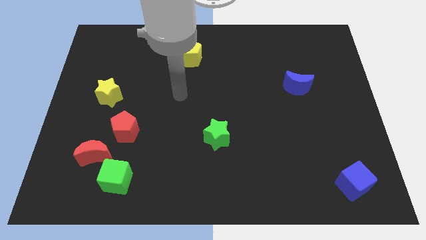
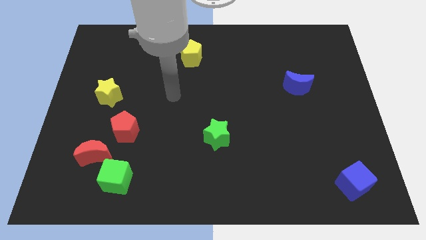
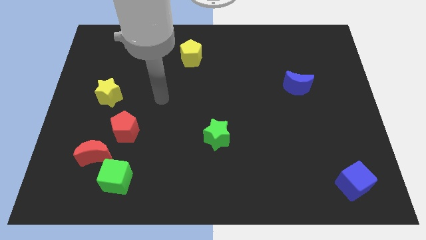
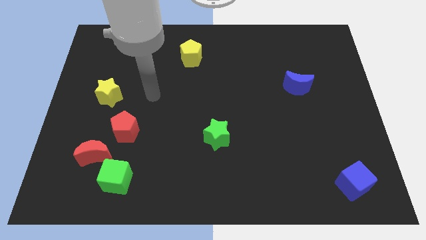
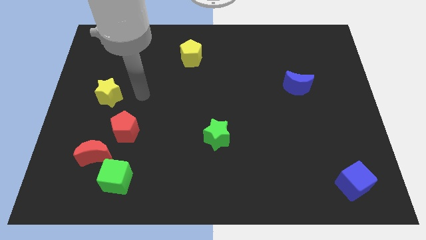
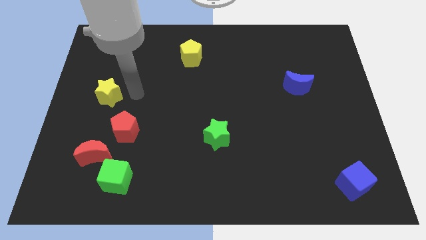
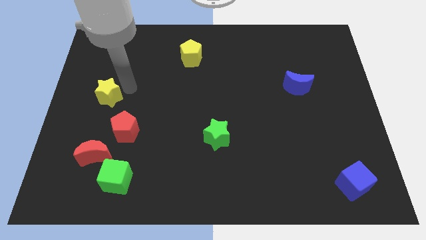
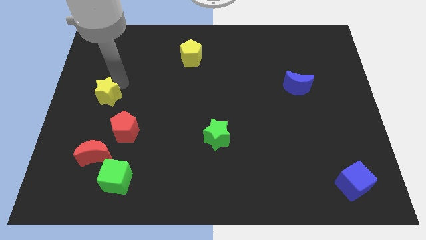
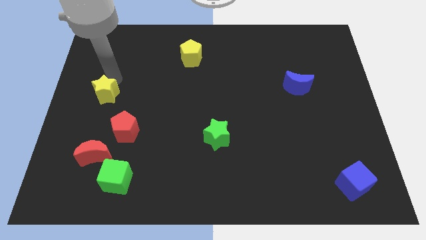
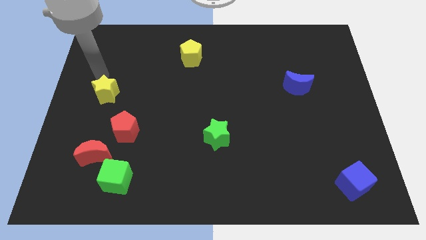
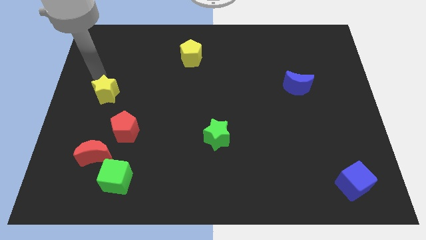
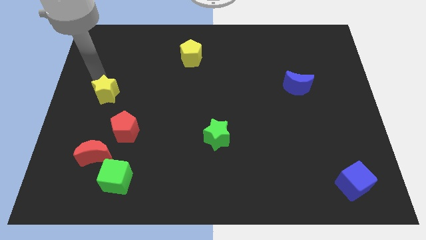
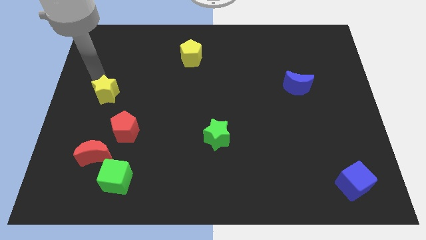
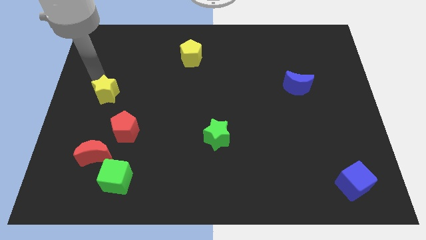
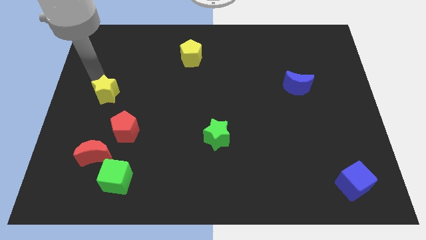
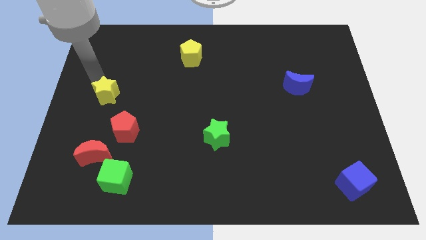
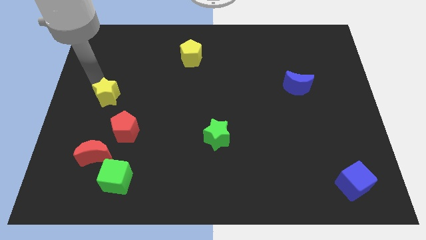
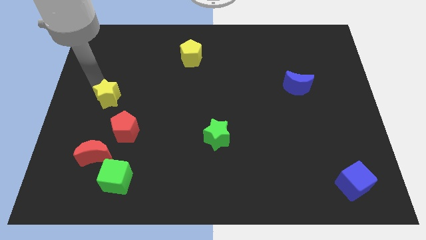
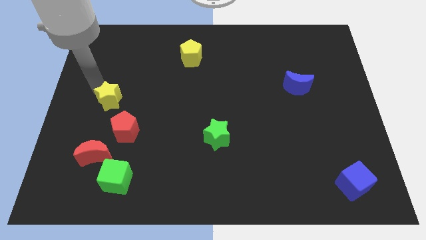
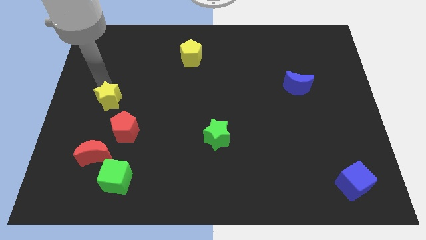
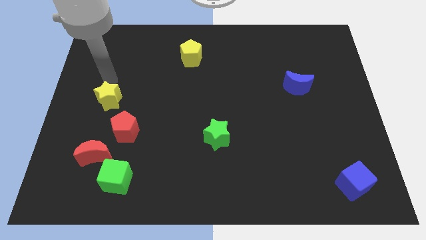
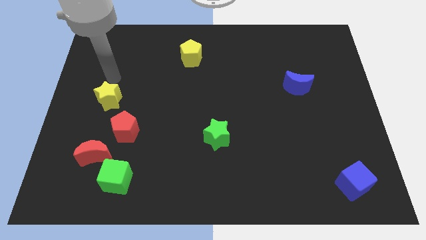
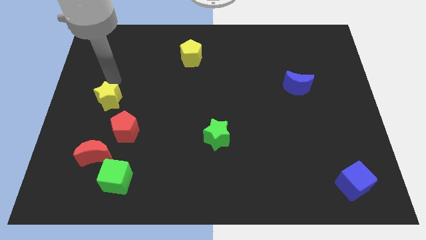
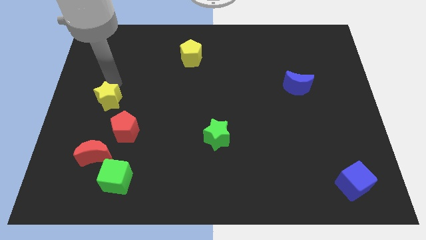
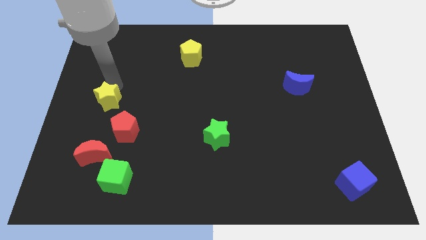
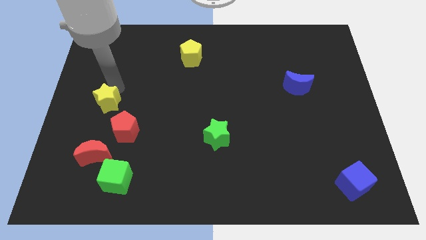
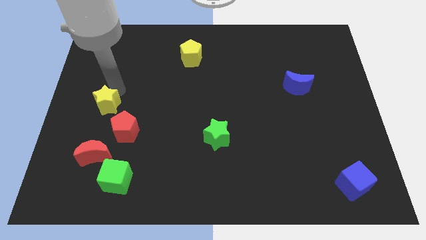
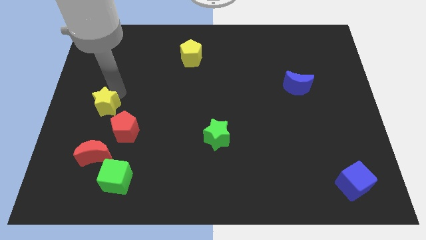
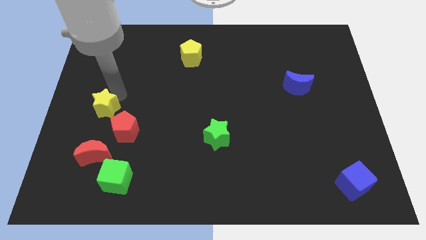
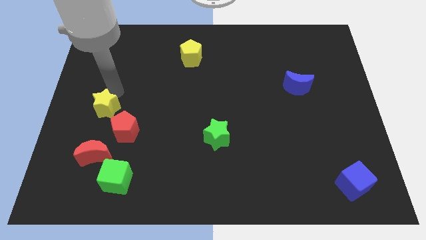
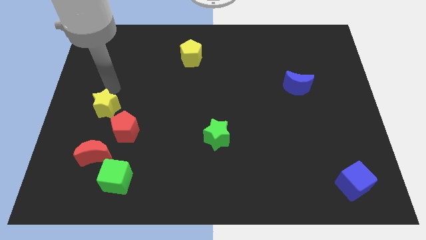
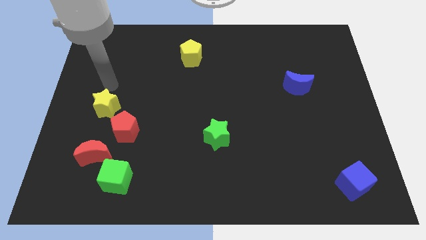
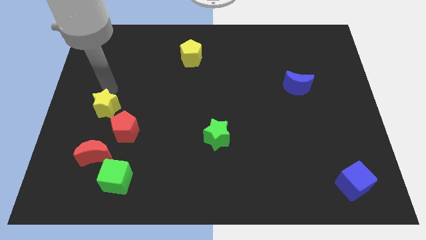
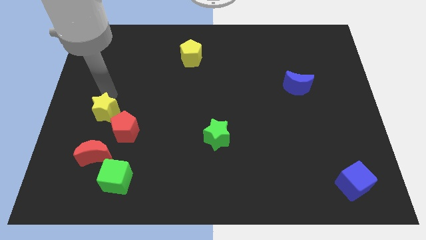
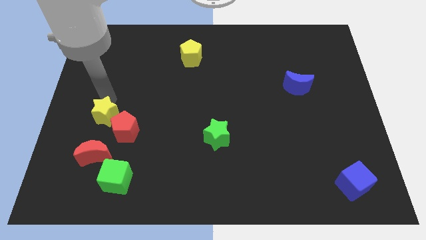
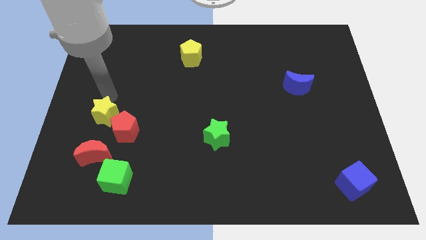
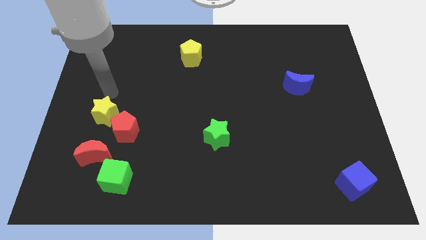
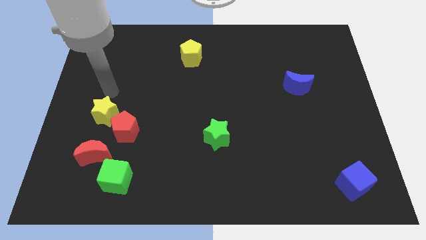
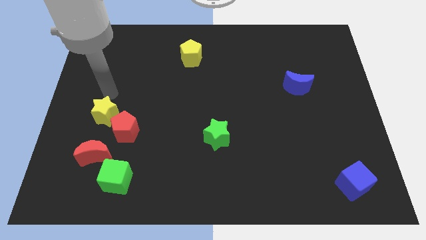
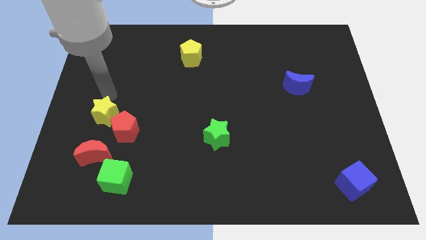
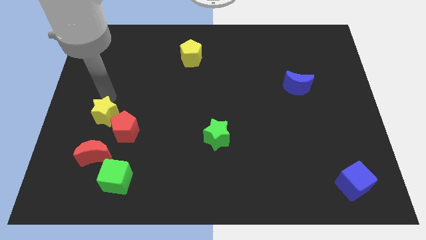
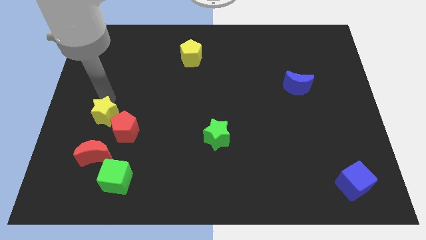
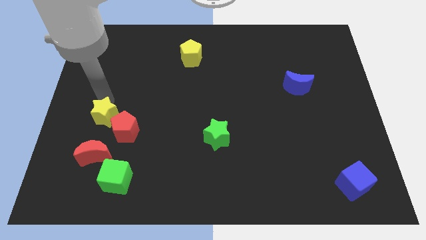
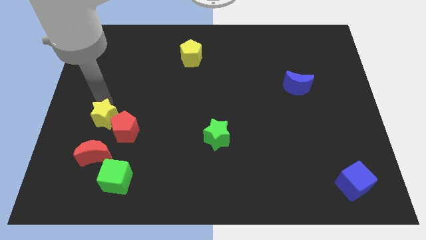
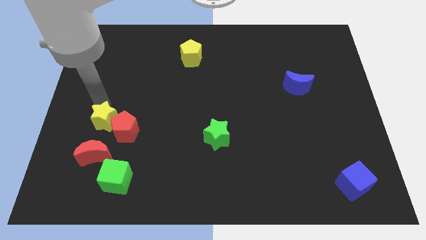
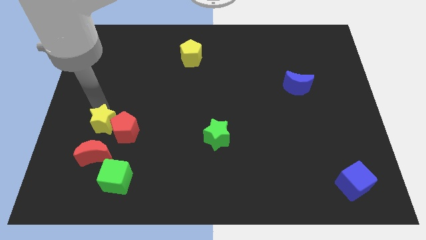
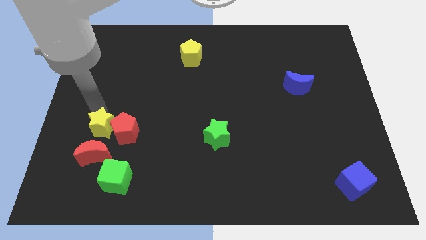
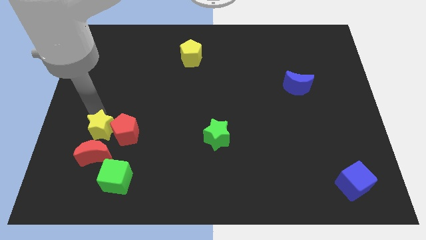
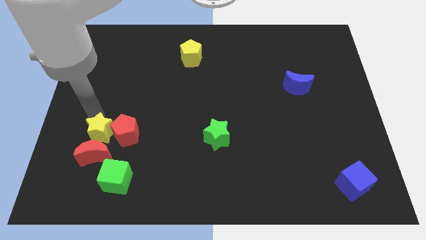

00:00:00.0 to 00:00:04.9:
move the yellow star towards the red moon

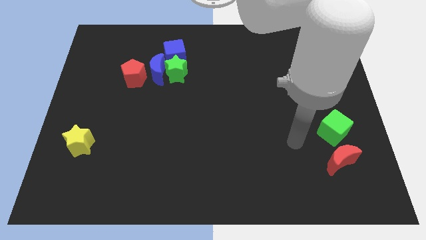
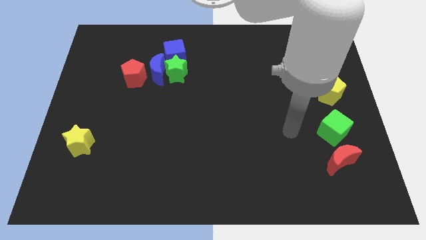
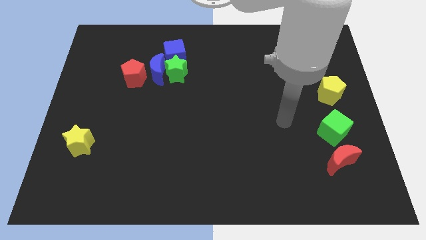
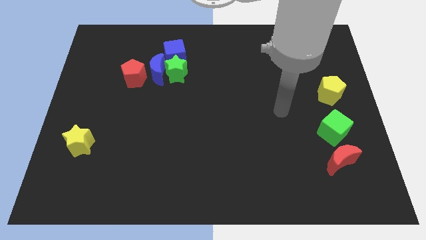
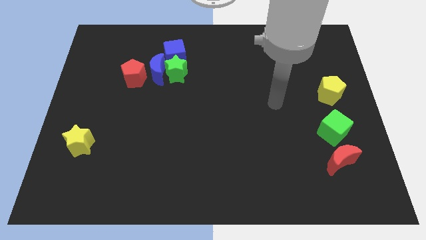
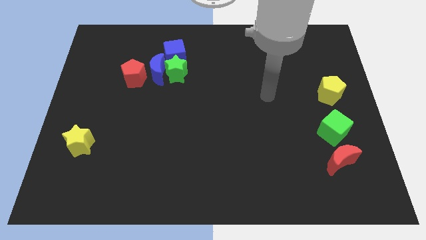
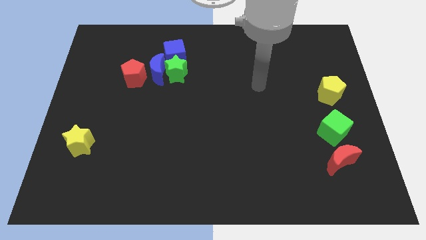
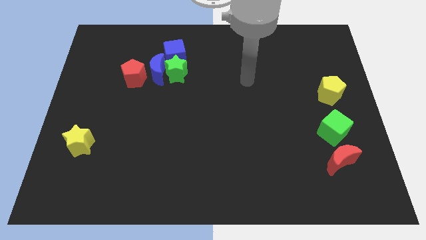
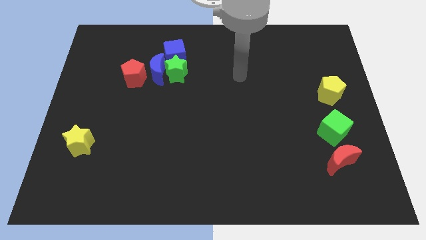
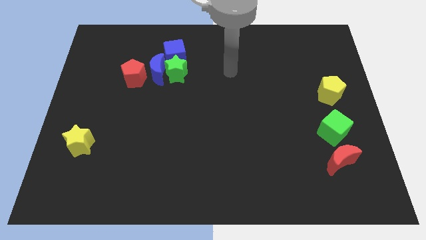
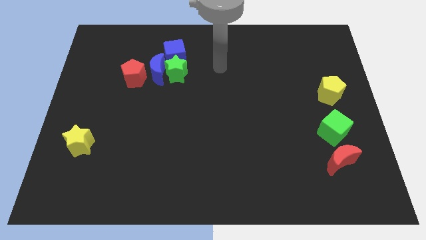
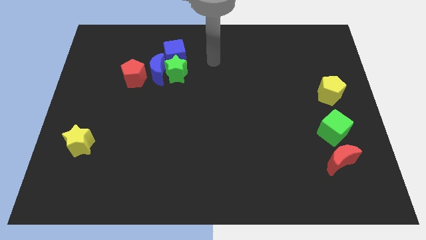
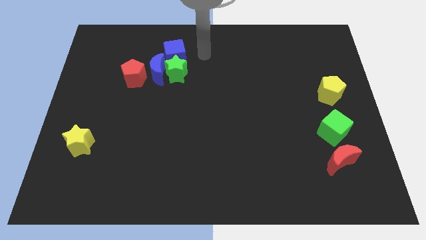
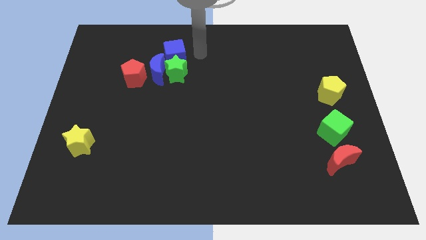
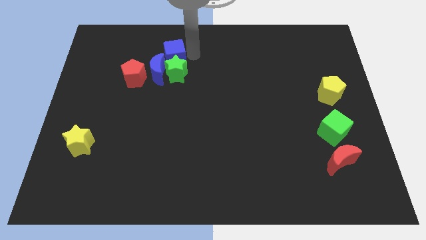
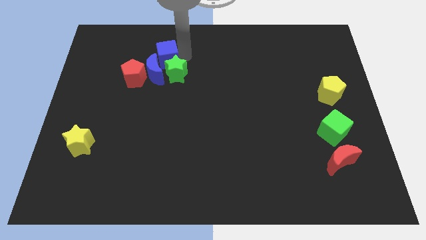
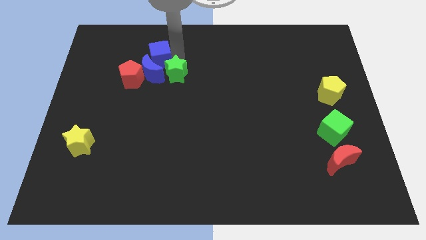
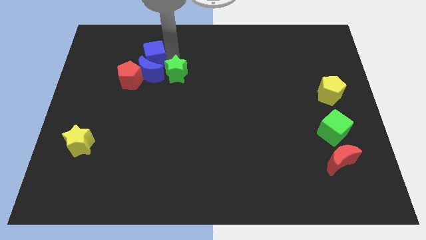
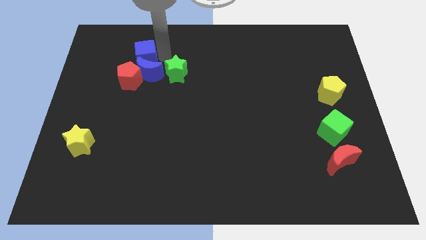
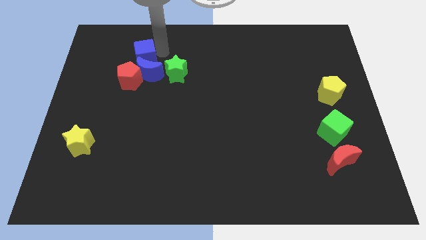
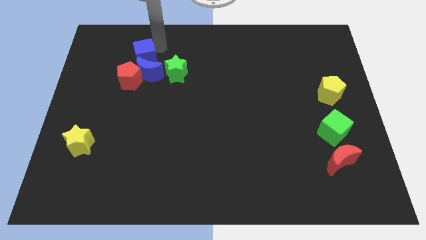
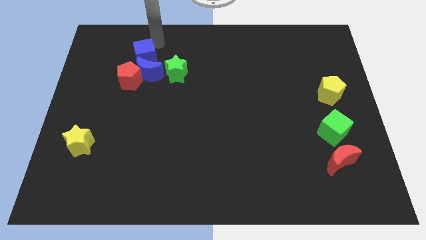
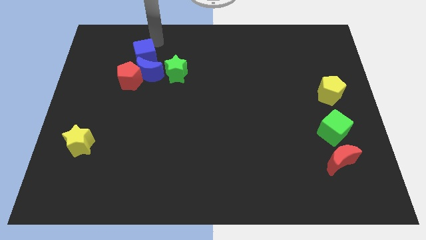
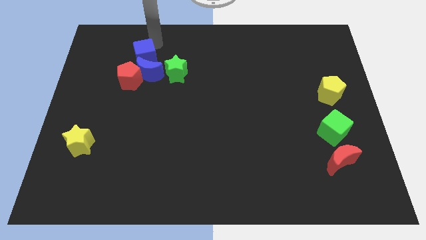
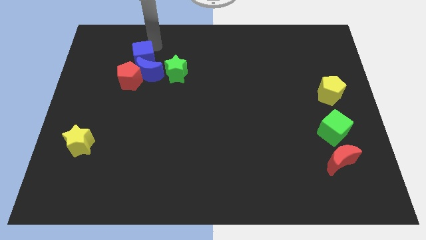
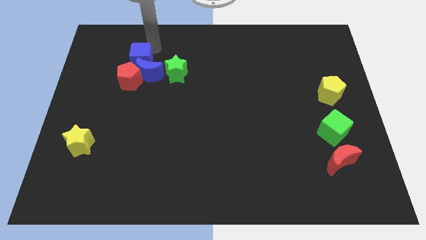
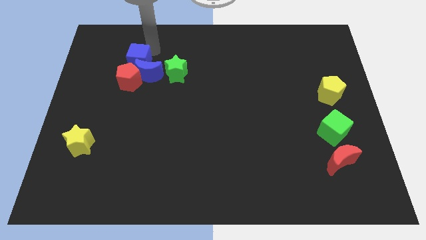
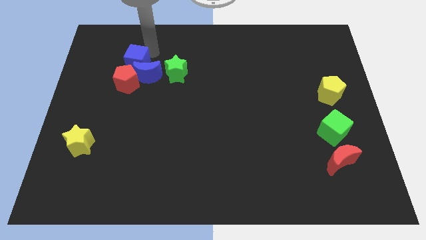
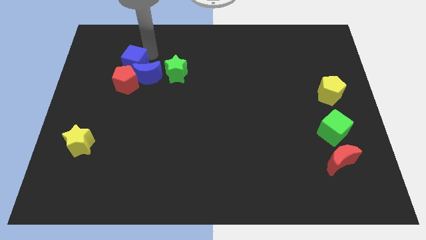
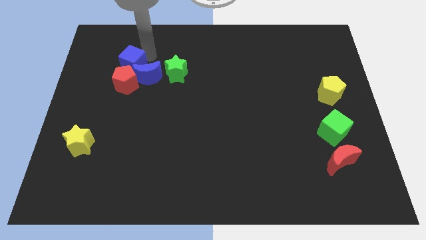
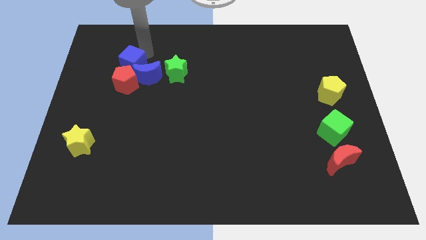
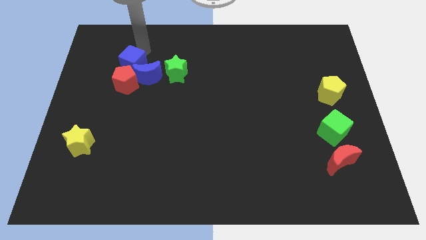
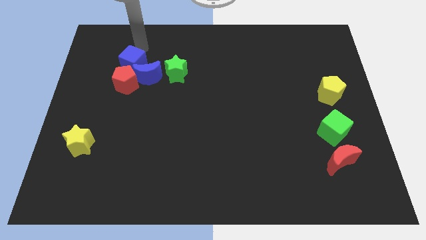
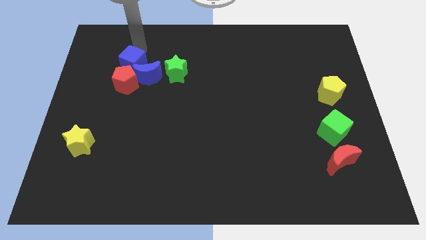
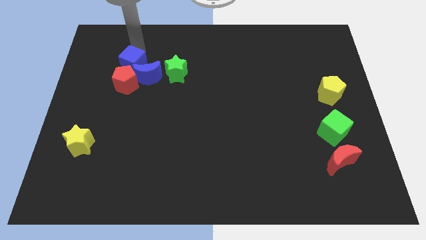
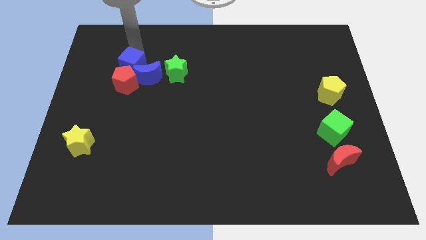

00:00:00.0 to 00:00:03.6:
slide the blue cube to the red pentagon

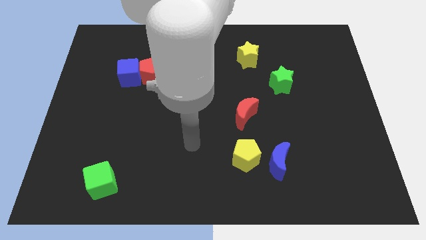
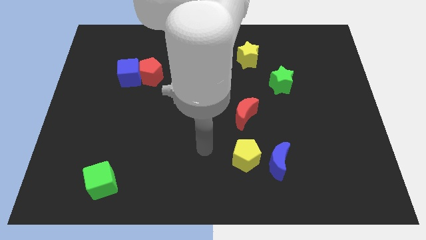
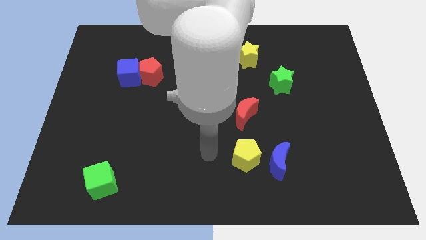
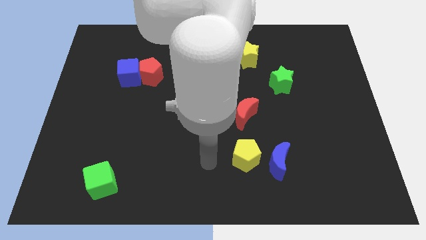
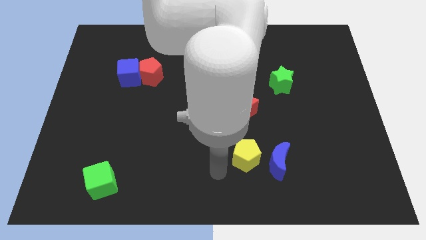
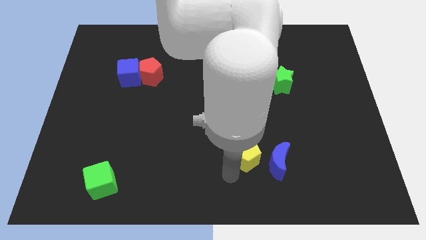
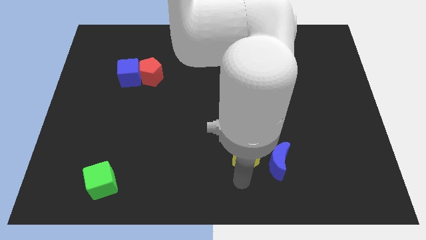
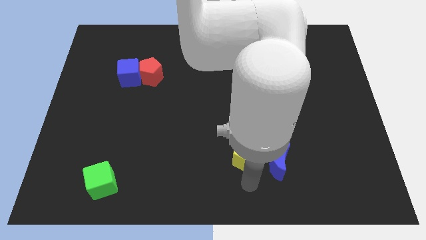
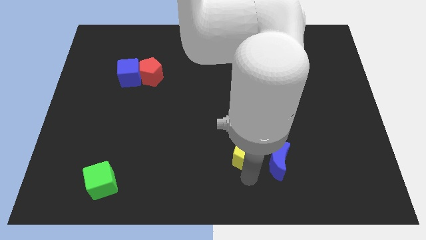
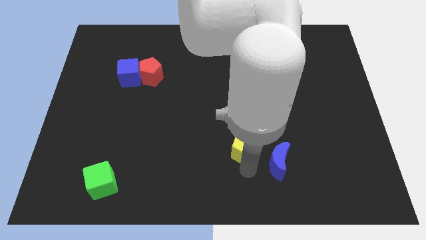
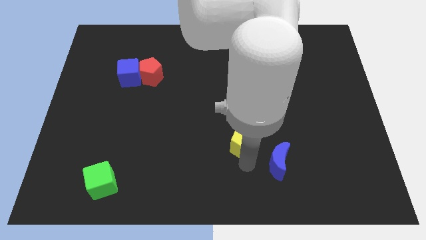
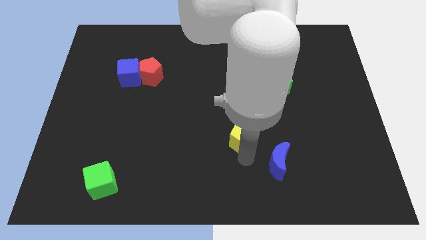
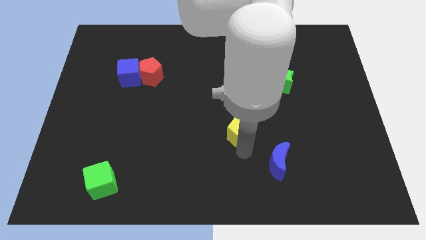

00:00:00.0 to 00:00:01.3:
put the yellow pentagon close to the red moon
